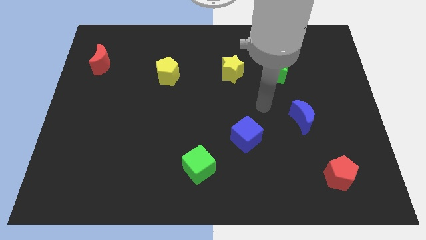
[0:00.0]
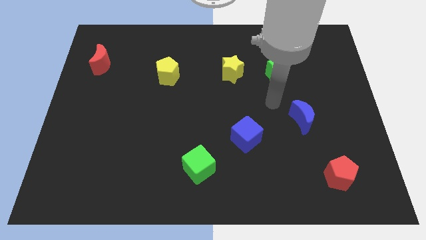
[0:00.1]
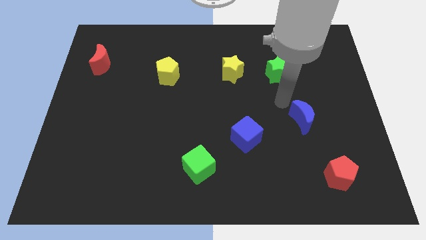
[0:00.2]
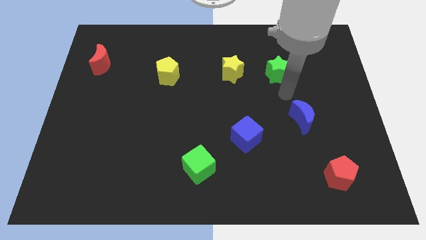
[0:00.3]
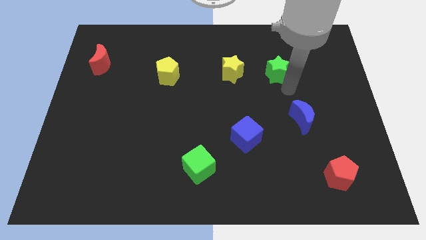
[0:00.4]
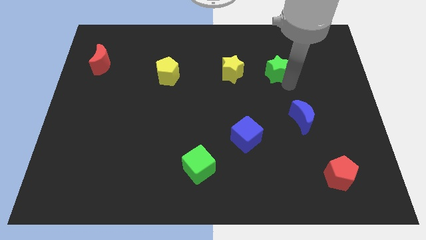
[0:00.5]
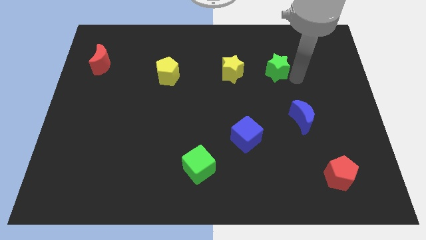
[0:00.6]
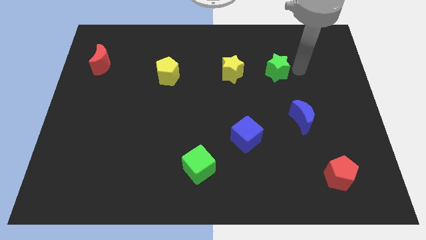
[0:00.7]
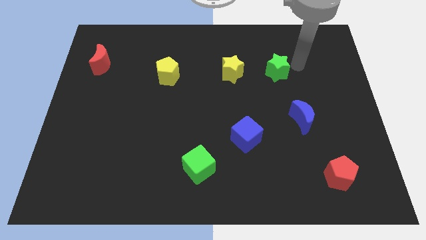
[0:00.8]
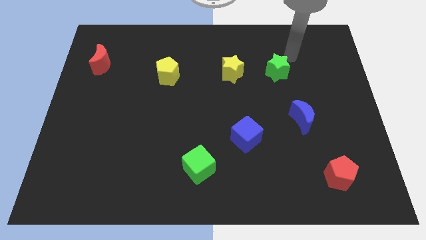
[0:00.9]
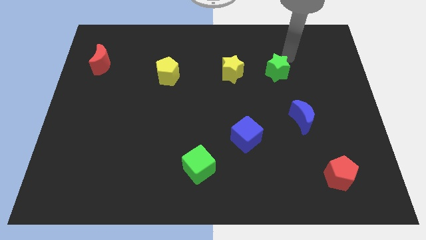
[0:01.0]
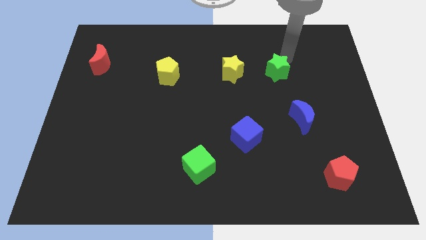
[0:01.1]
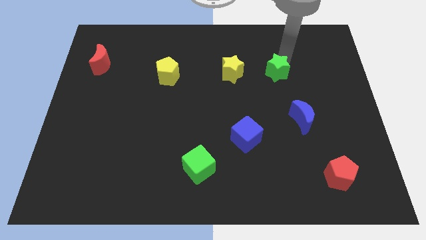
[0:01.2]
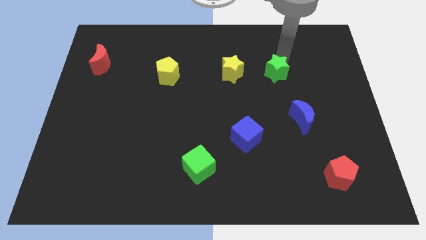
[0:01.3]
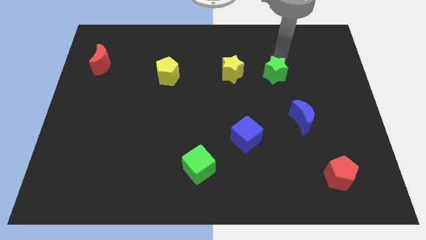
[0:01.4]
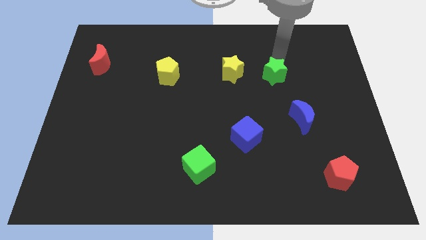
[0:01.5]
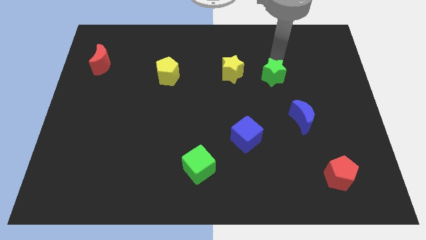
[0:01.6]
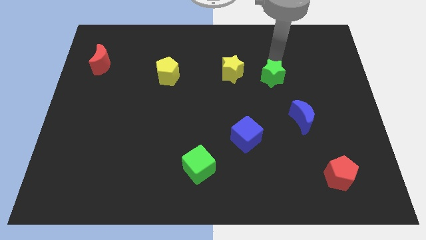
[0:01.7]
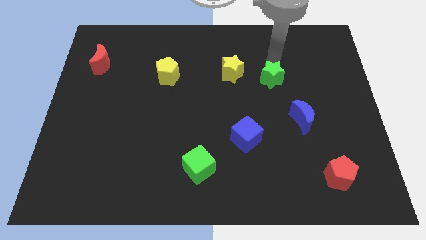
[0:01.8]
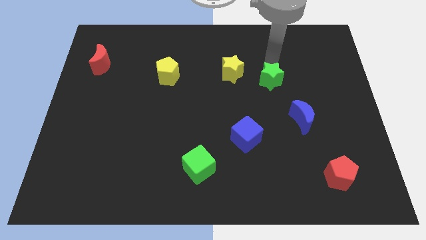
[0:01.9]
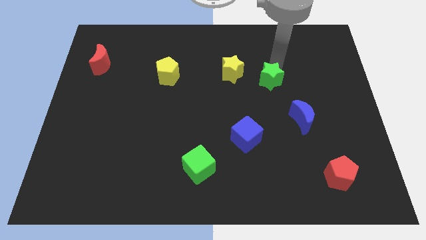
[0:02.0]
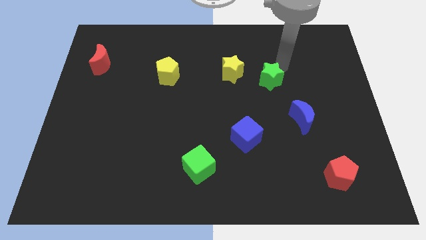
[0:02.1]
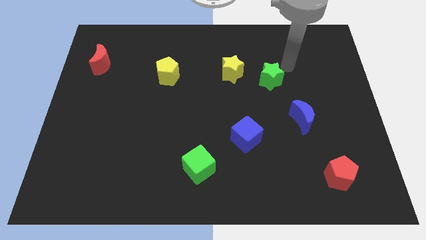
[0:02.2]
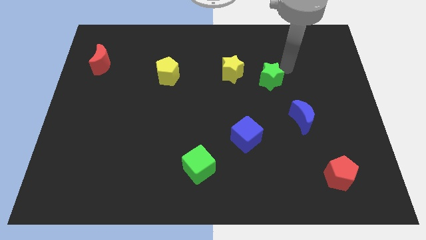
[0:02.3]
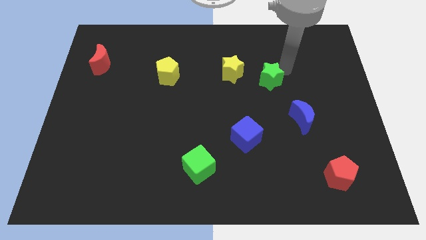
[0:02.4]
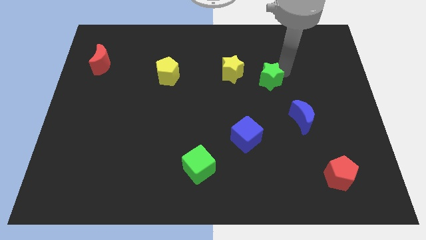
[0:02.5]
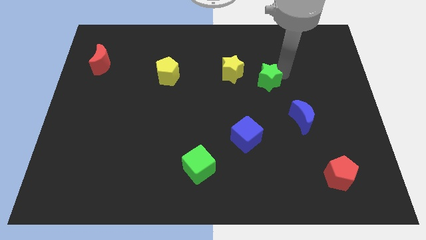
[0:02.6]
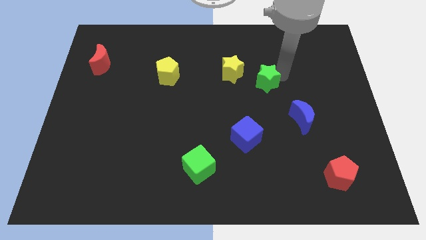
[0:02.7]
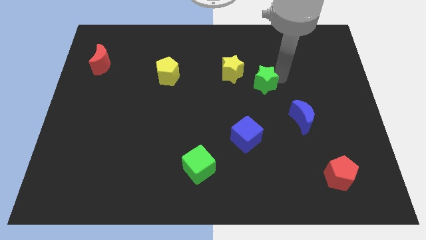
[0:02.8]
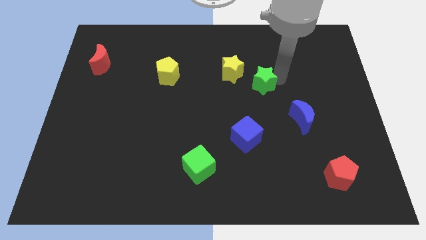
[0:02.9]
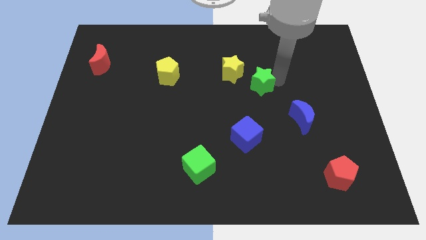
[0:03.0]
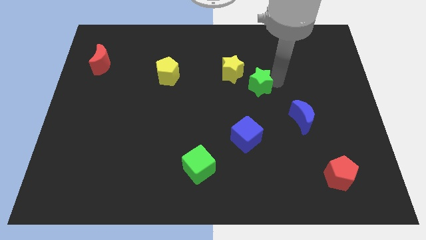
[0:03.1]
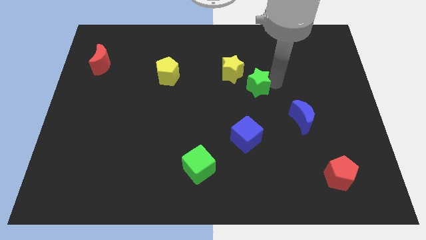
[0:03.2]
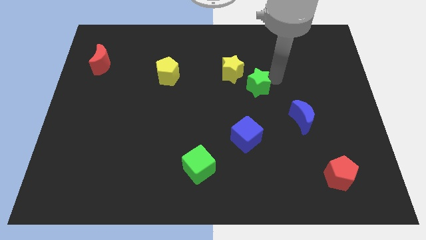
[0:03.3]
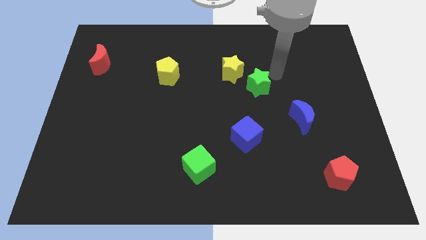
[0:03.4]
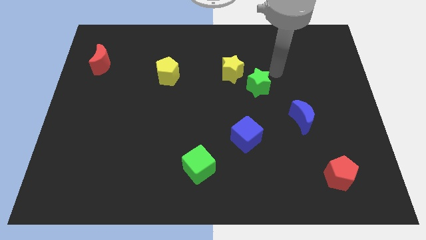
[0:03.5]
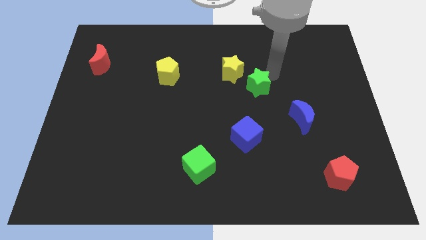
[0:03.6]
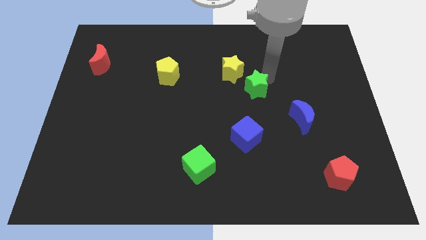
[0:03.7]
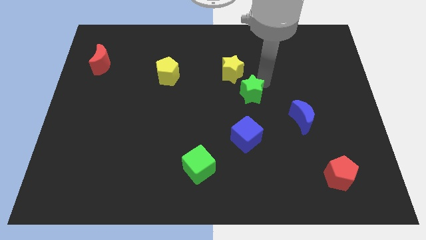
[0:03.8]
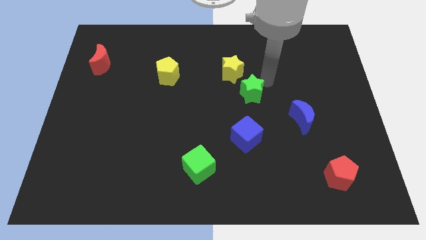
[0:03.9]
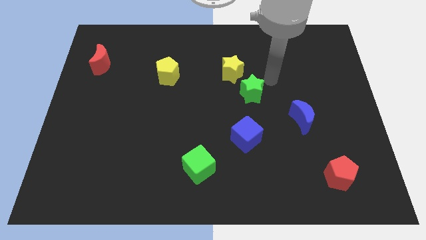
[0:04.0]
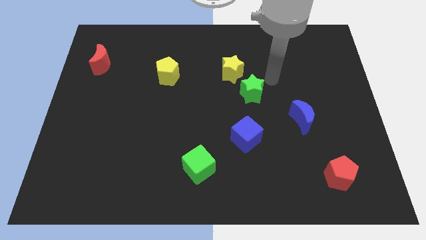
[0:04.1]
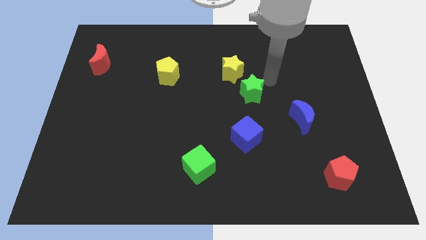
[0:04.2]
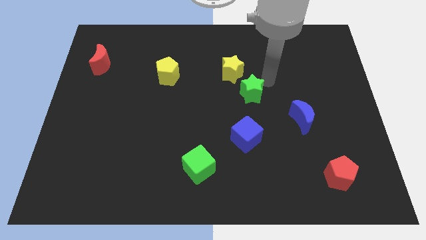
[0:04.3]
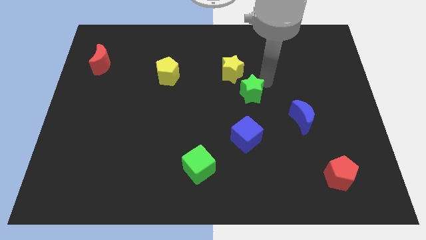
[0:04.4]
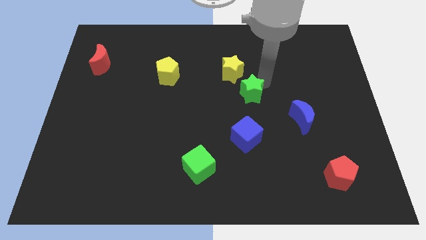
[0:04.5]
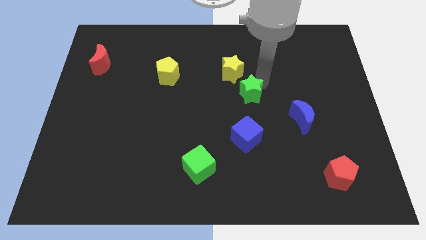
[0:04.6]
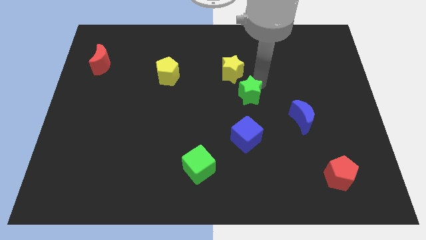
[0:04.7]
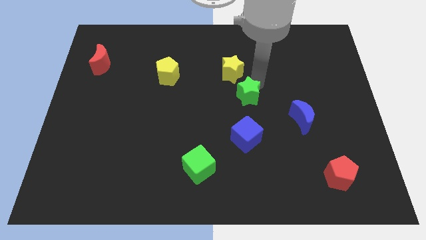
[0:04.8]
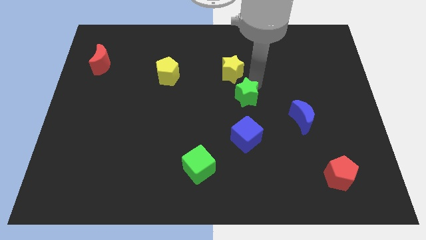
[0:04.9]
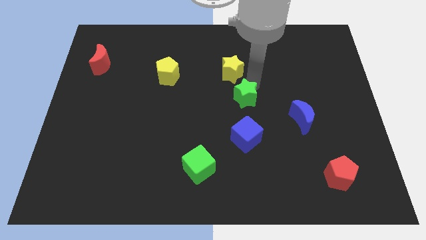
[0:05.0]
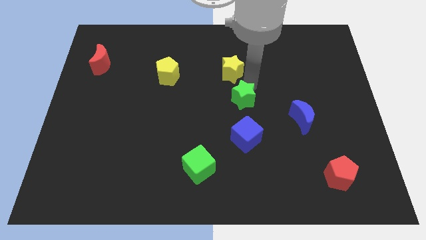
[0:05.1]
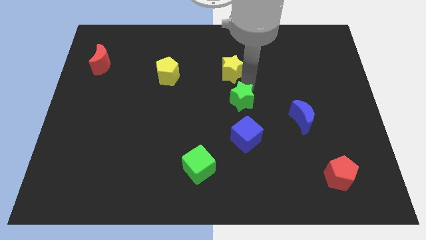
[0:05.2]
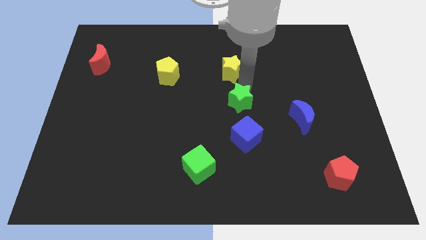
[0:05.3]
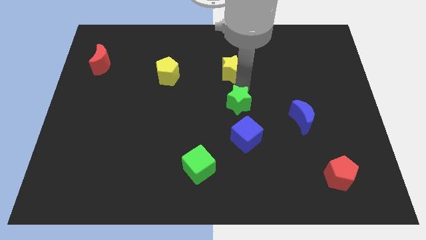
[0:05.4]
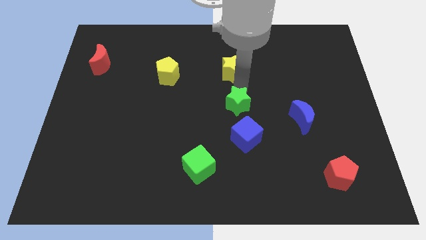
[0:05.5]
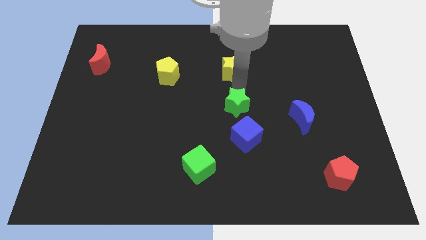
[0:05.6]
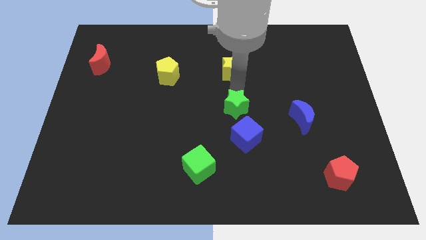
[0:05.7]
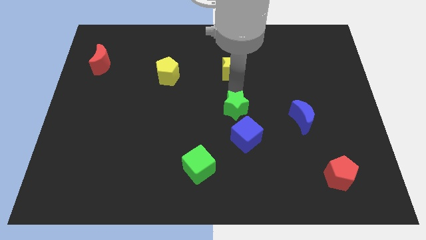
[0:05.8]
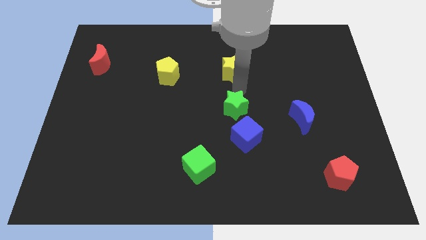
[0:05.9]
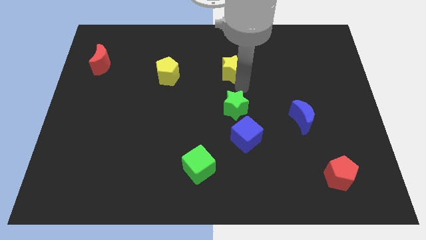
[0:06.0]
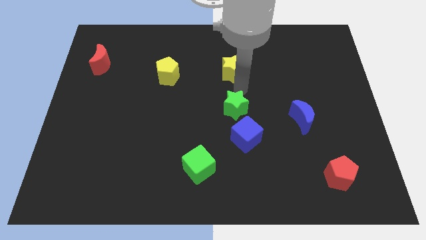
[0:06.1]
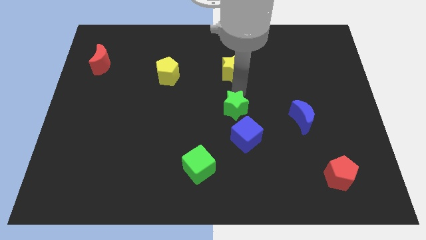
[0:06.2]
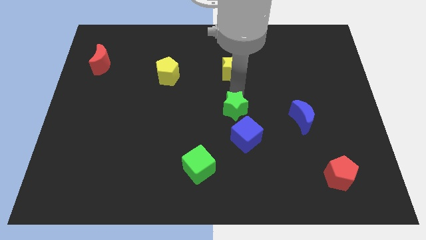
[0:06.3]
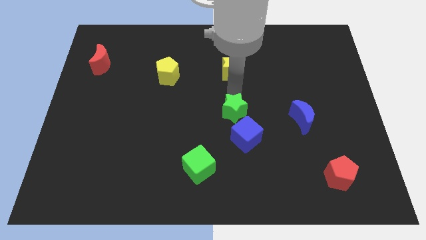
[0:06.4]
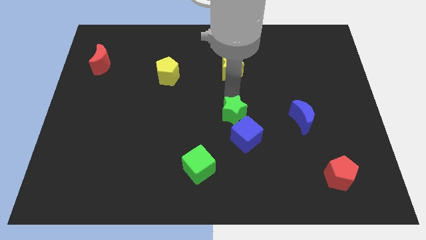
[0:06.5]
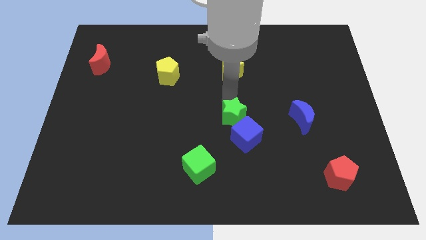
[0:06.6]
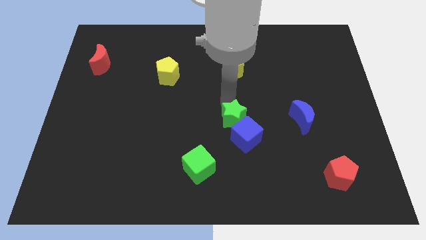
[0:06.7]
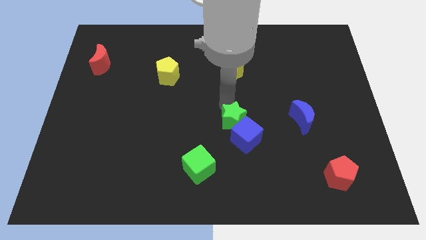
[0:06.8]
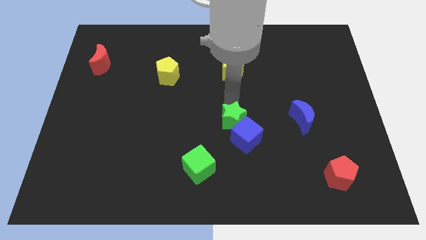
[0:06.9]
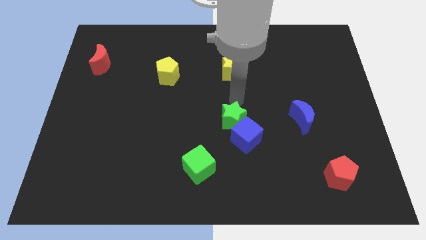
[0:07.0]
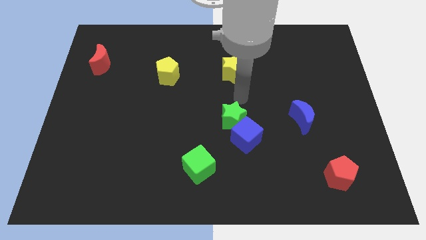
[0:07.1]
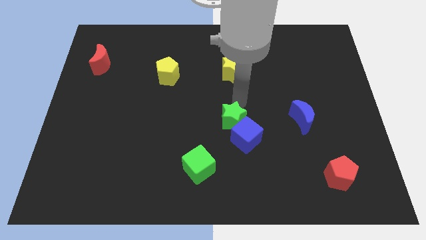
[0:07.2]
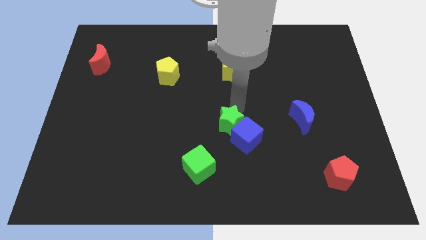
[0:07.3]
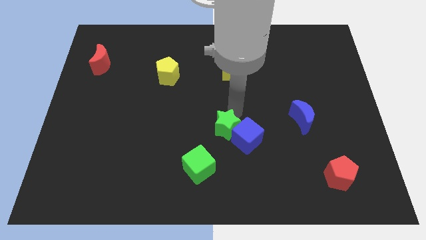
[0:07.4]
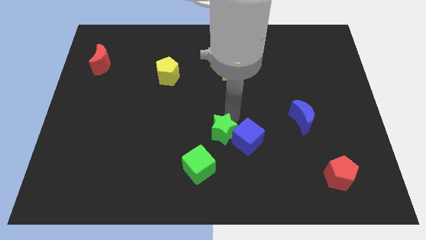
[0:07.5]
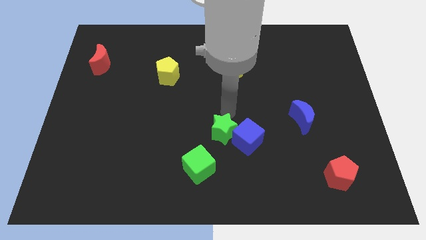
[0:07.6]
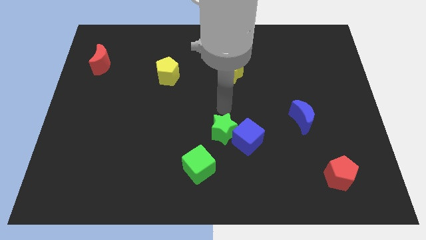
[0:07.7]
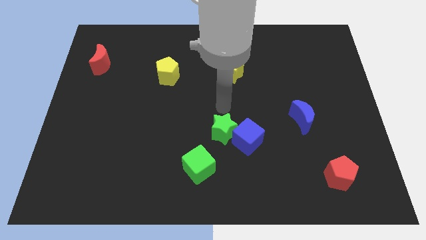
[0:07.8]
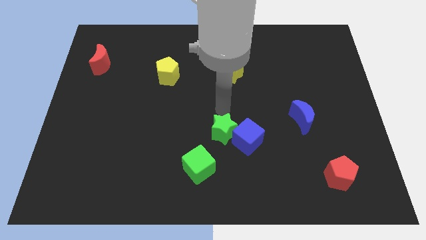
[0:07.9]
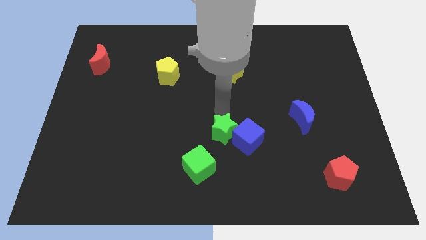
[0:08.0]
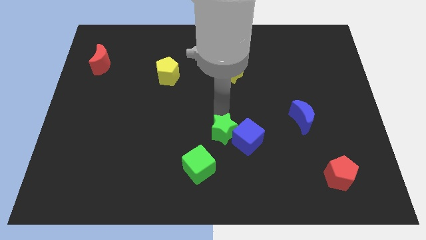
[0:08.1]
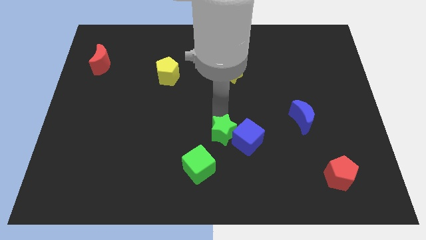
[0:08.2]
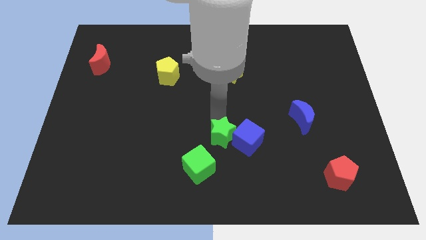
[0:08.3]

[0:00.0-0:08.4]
push the green star diagonally down and to the left of the blue cube
